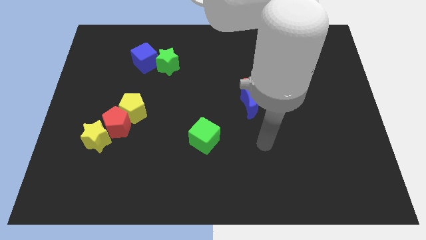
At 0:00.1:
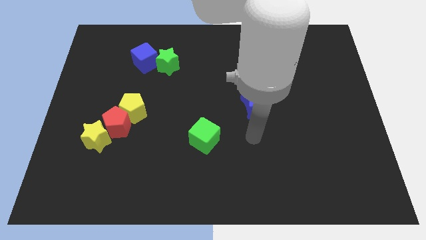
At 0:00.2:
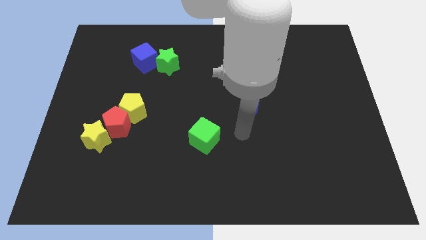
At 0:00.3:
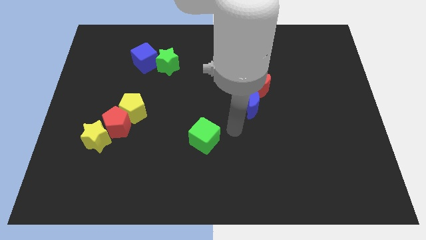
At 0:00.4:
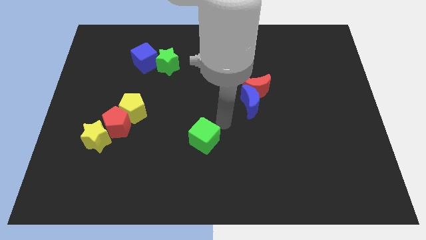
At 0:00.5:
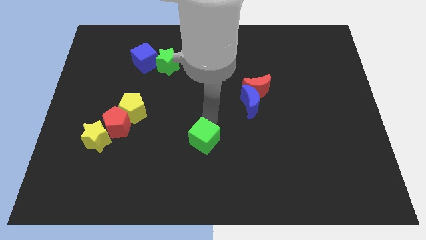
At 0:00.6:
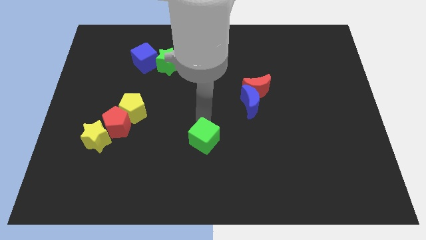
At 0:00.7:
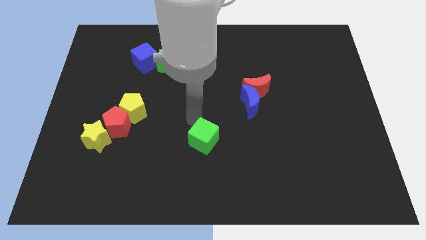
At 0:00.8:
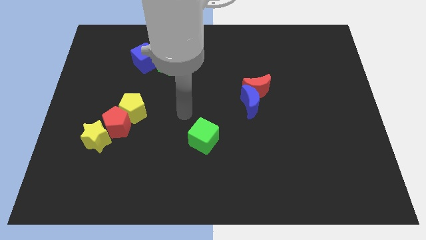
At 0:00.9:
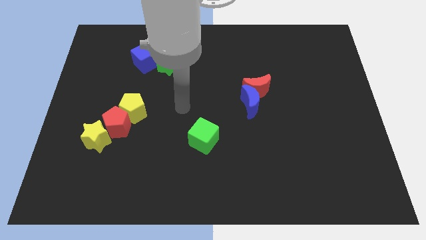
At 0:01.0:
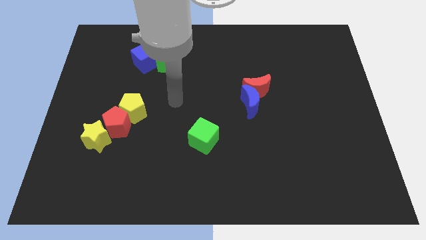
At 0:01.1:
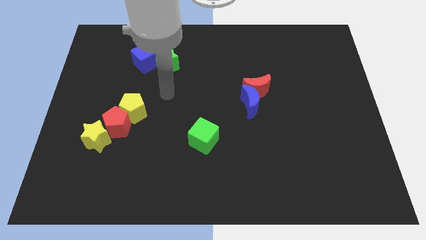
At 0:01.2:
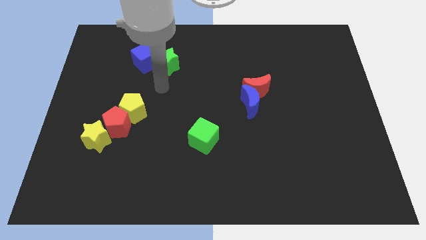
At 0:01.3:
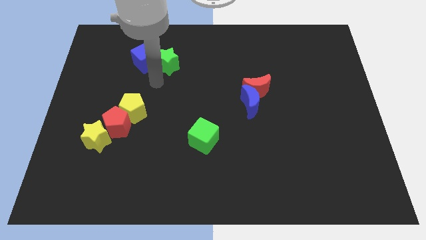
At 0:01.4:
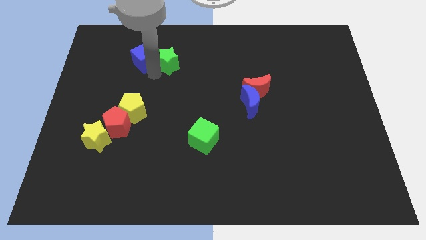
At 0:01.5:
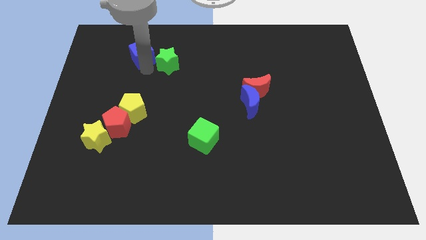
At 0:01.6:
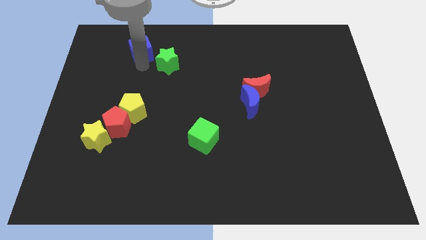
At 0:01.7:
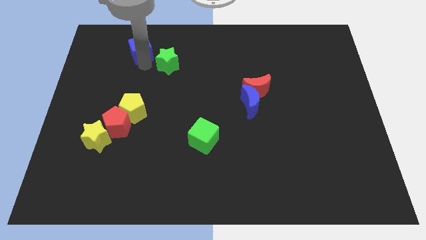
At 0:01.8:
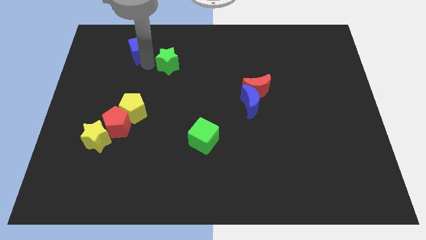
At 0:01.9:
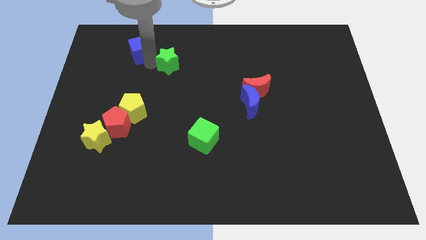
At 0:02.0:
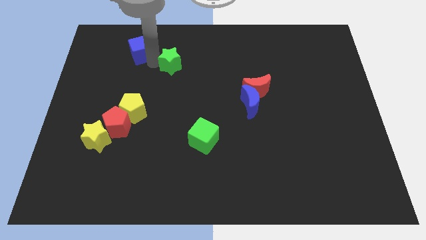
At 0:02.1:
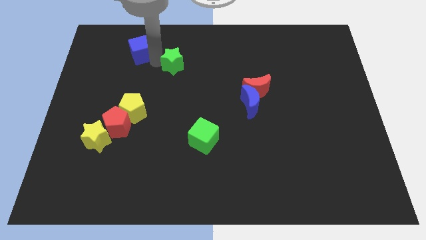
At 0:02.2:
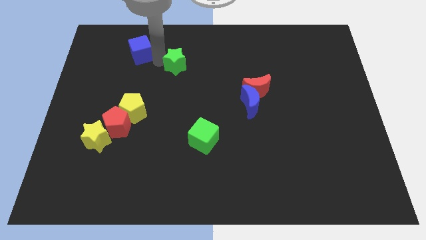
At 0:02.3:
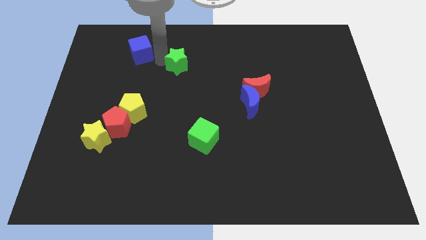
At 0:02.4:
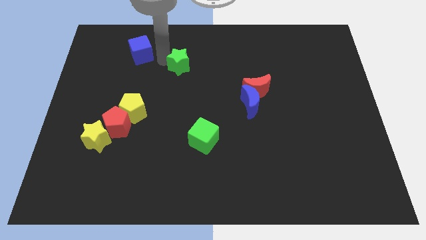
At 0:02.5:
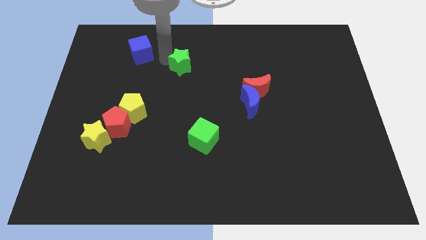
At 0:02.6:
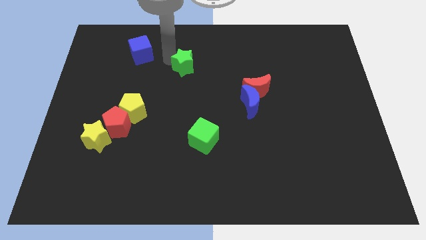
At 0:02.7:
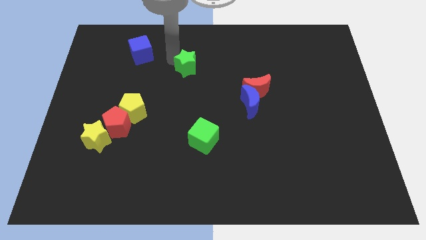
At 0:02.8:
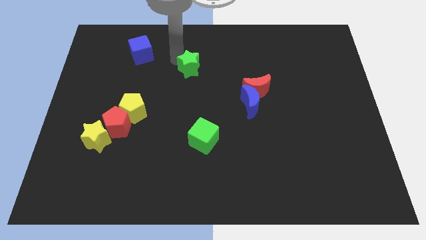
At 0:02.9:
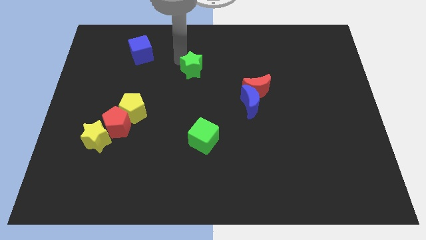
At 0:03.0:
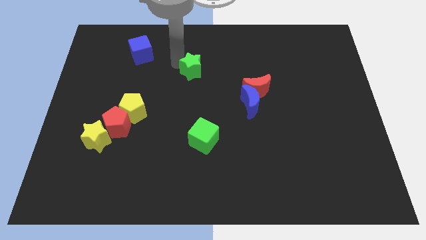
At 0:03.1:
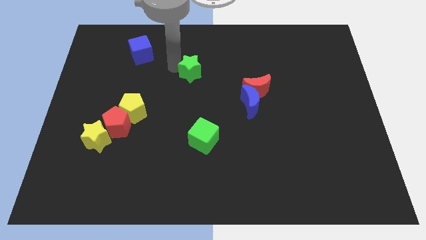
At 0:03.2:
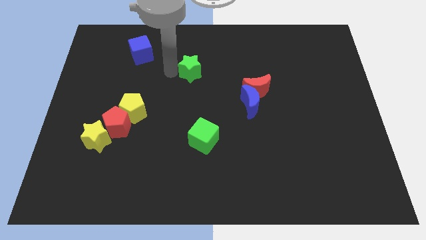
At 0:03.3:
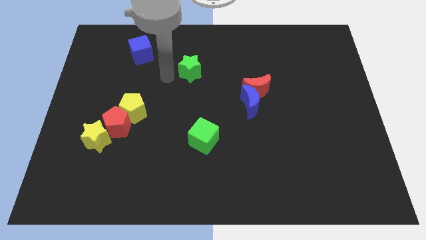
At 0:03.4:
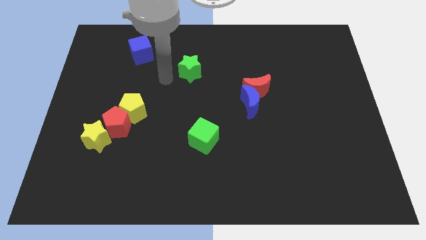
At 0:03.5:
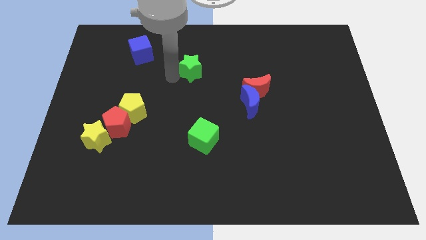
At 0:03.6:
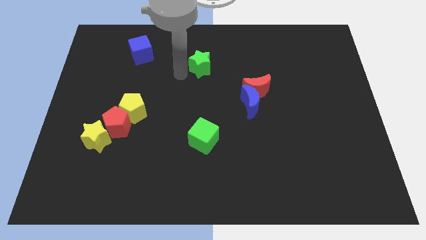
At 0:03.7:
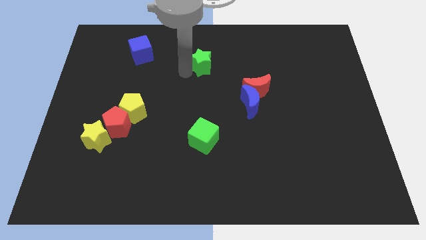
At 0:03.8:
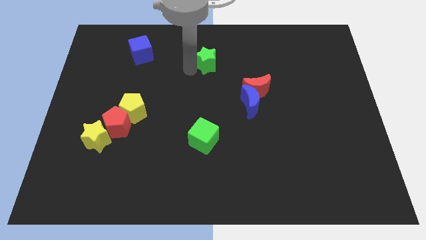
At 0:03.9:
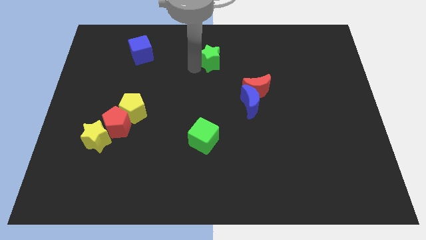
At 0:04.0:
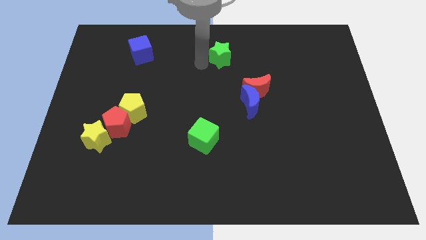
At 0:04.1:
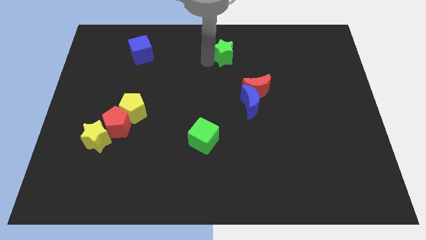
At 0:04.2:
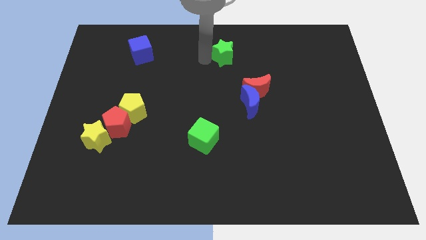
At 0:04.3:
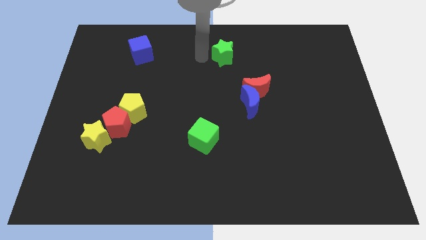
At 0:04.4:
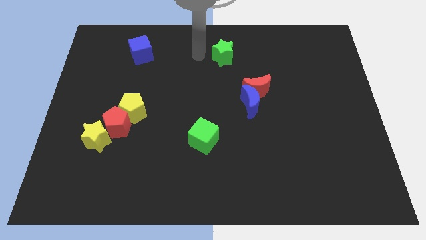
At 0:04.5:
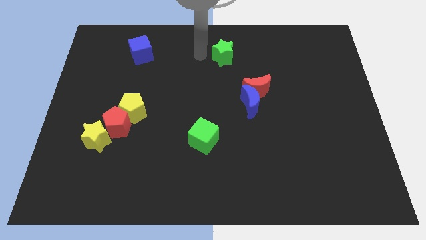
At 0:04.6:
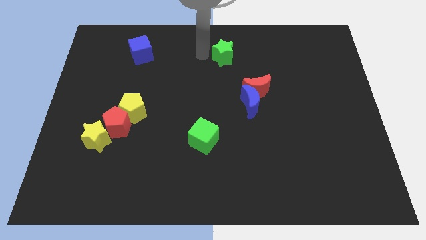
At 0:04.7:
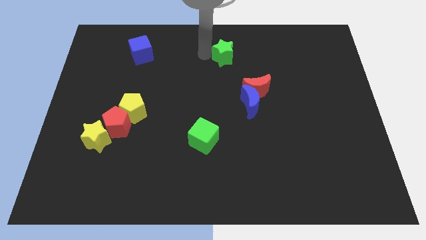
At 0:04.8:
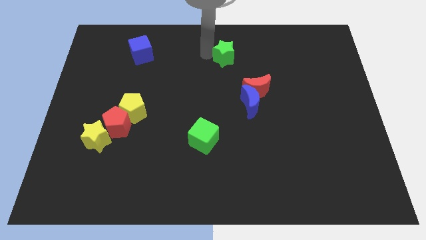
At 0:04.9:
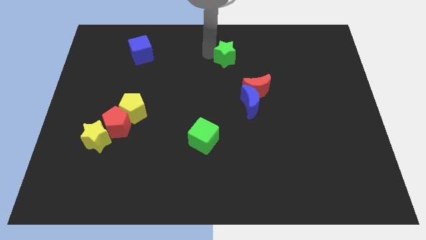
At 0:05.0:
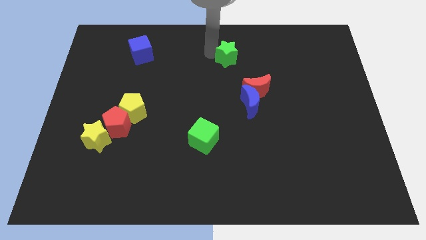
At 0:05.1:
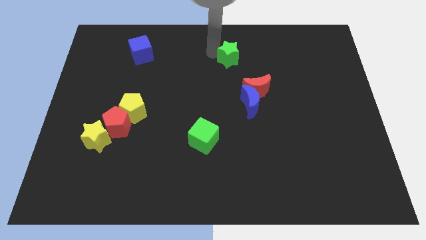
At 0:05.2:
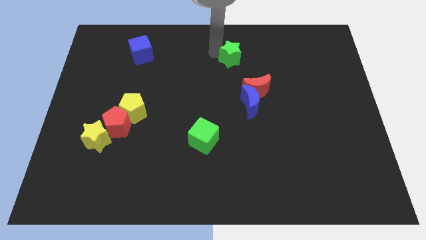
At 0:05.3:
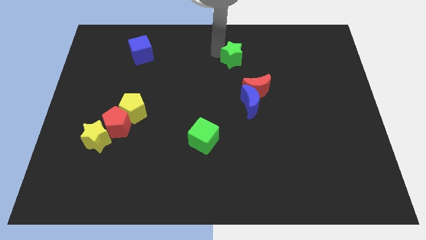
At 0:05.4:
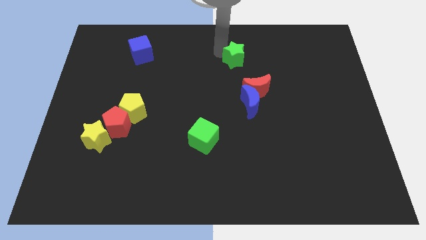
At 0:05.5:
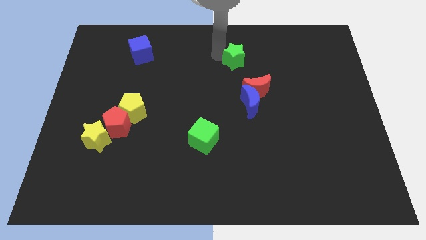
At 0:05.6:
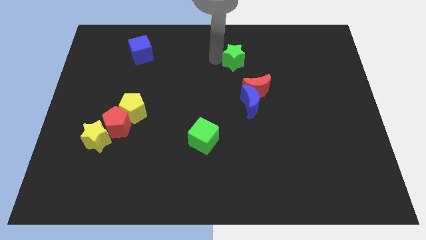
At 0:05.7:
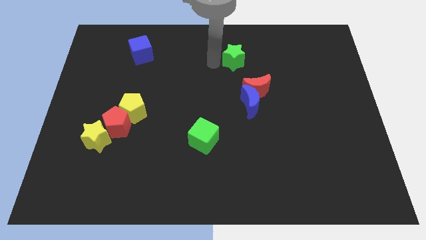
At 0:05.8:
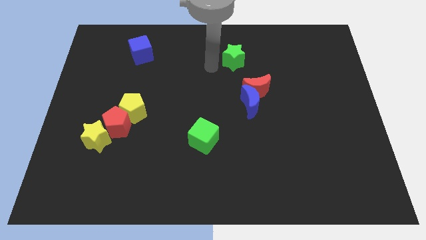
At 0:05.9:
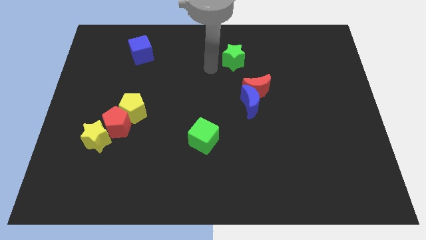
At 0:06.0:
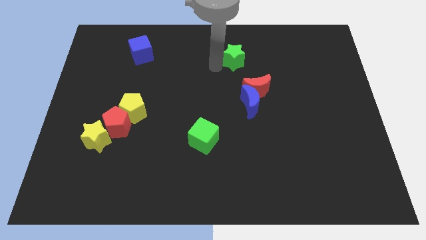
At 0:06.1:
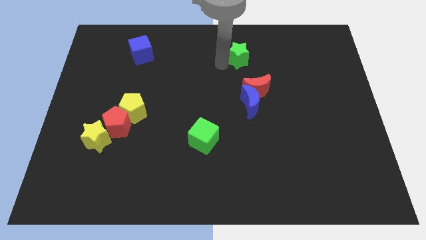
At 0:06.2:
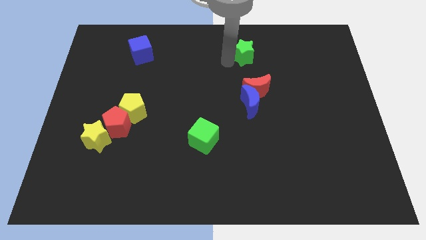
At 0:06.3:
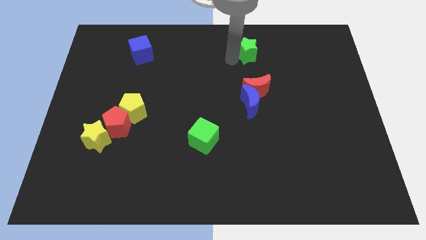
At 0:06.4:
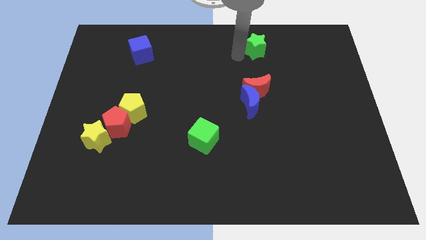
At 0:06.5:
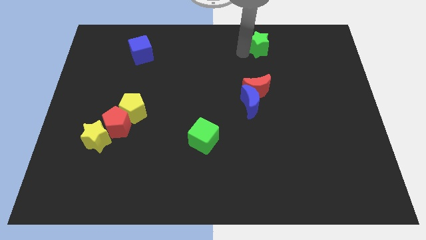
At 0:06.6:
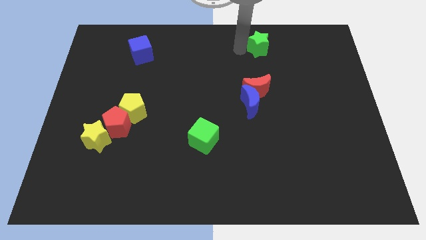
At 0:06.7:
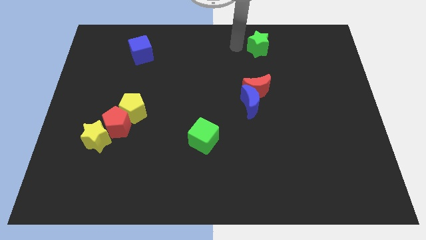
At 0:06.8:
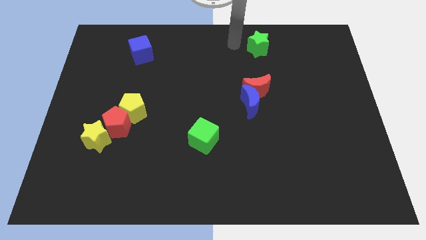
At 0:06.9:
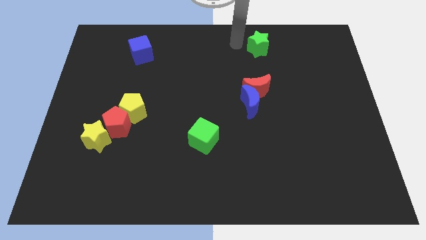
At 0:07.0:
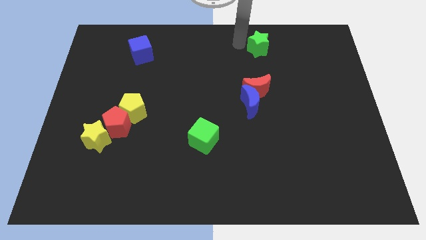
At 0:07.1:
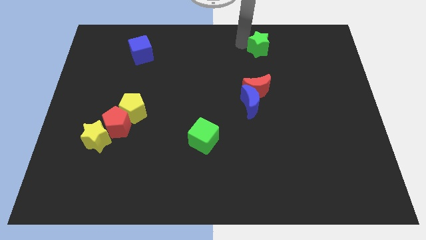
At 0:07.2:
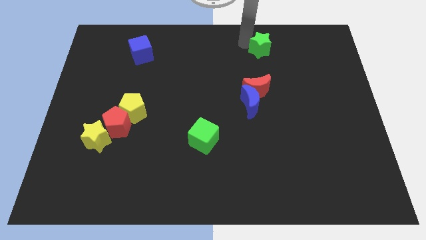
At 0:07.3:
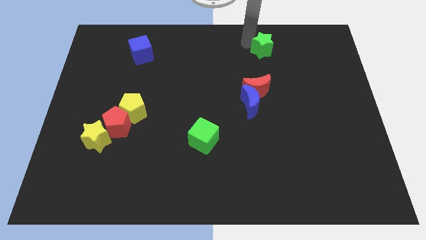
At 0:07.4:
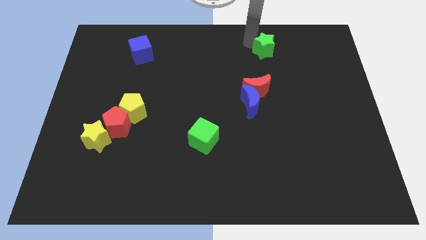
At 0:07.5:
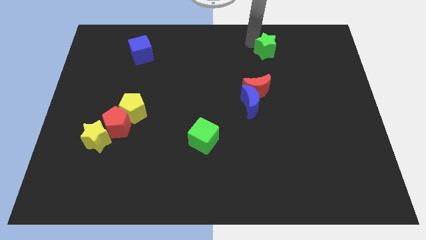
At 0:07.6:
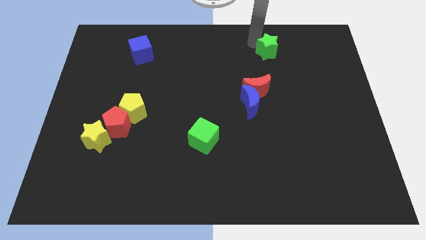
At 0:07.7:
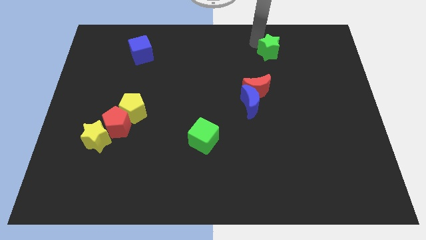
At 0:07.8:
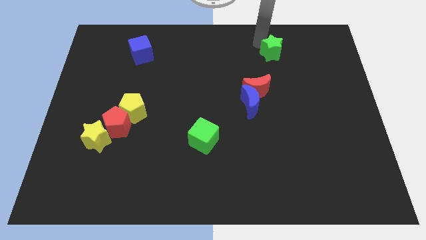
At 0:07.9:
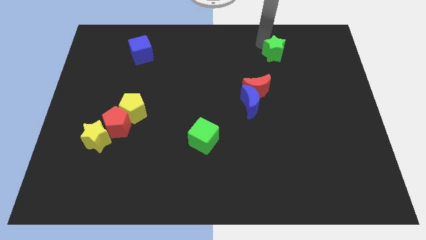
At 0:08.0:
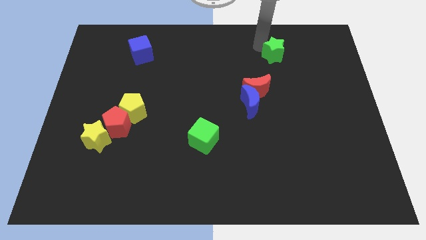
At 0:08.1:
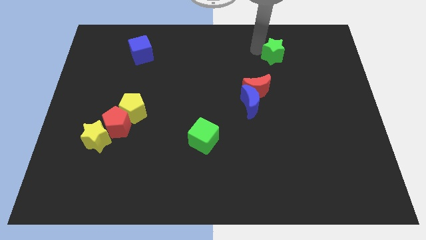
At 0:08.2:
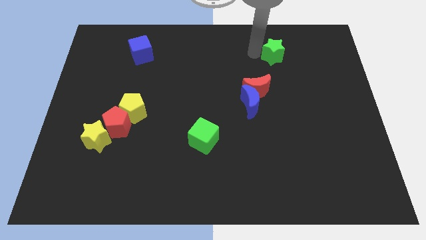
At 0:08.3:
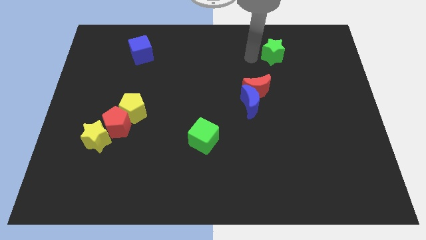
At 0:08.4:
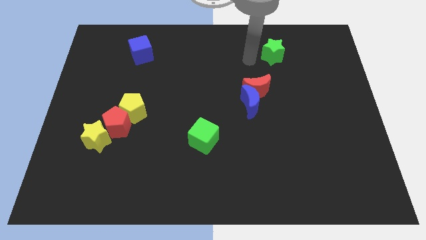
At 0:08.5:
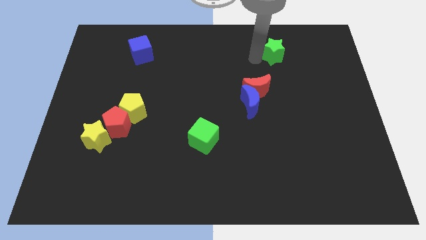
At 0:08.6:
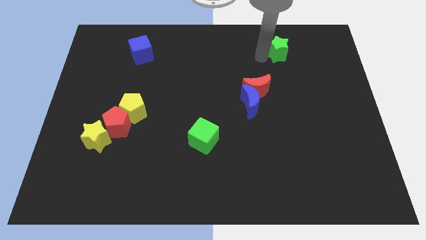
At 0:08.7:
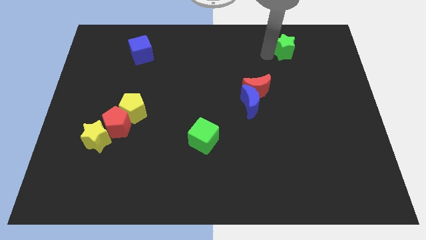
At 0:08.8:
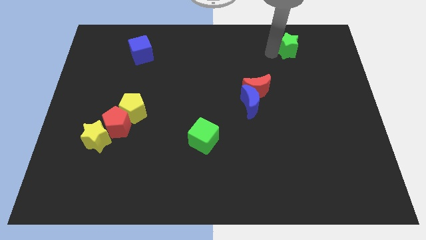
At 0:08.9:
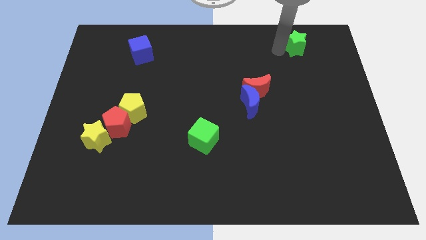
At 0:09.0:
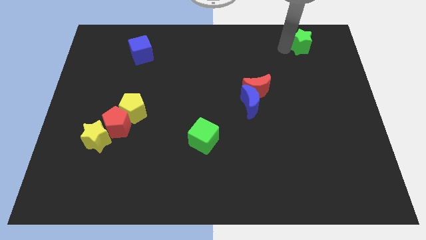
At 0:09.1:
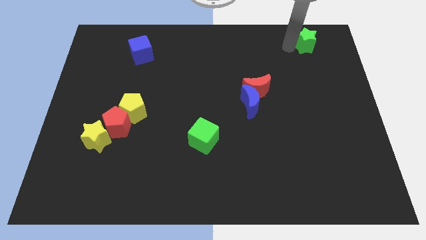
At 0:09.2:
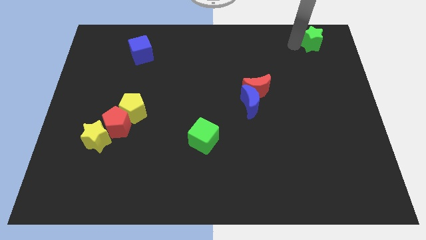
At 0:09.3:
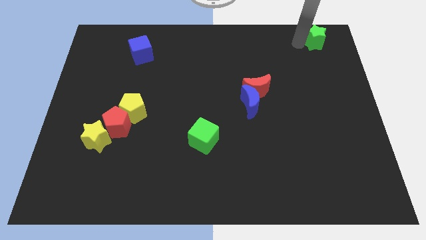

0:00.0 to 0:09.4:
move the green star to the top right corner
